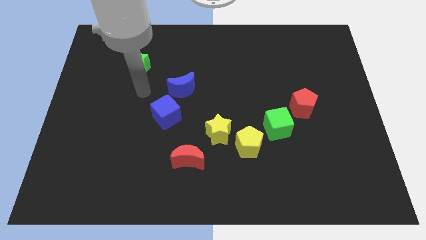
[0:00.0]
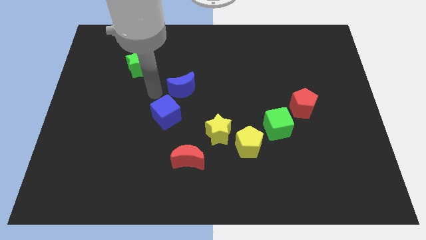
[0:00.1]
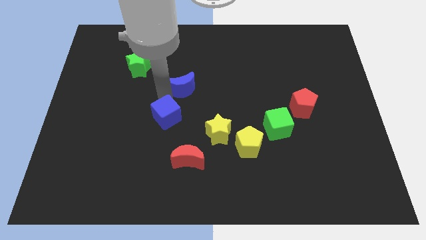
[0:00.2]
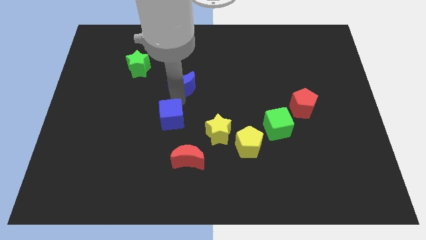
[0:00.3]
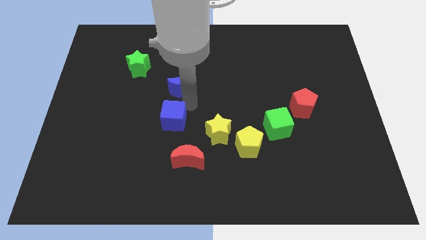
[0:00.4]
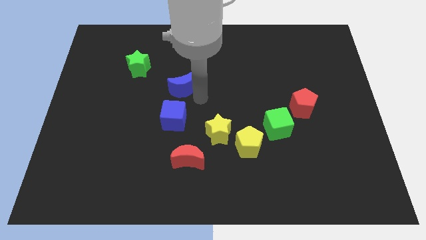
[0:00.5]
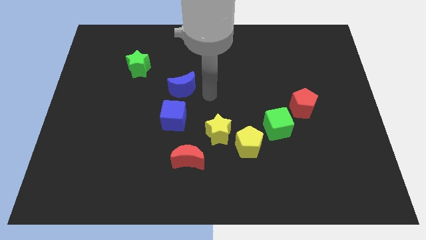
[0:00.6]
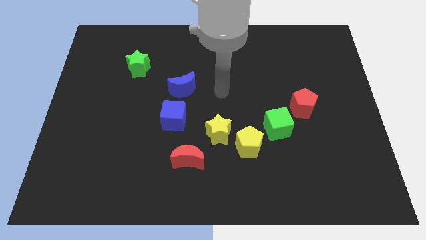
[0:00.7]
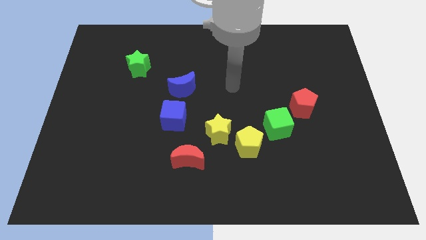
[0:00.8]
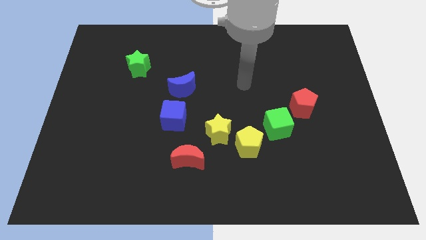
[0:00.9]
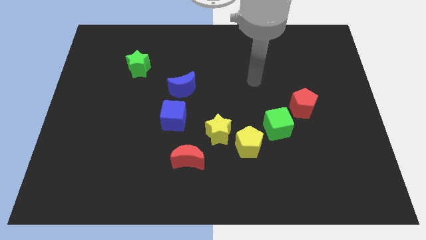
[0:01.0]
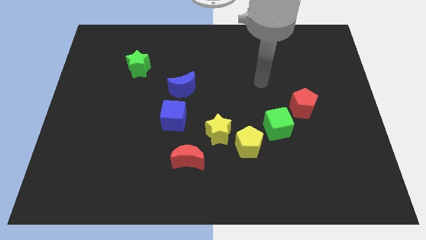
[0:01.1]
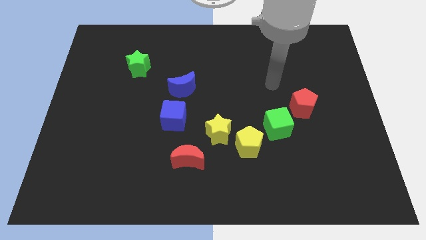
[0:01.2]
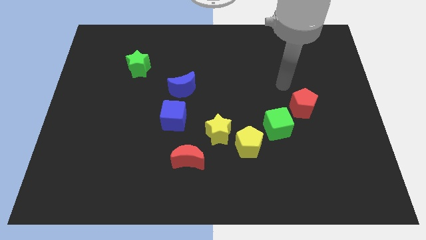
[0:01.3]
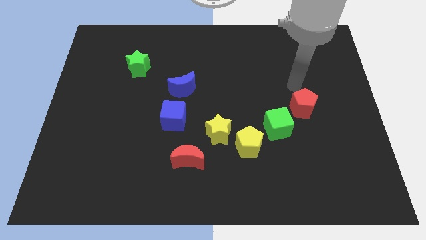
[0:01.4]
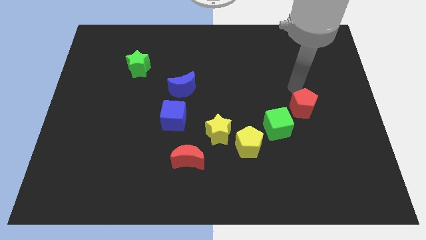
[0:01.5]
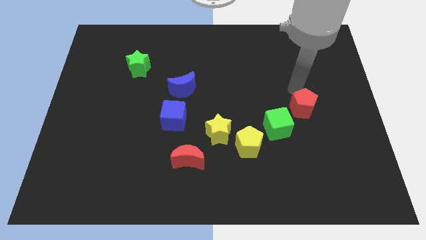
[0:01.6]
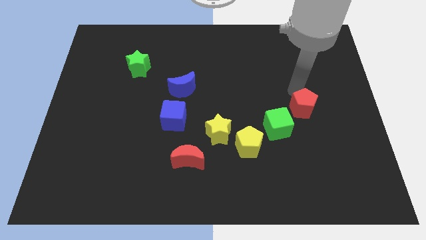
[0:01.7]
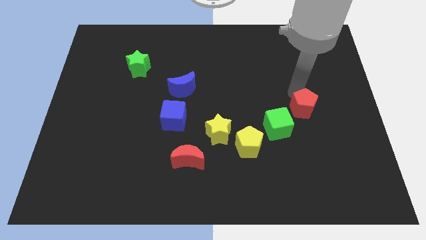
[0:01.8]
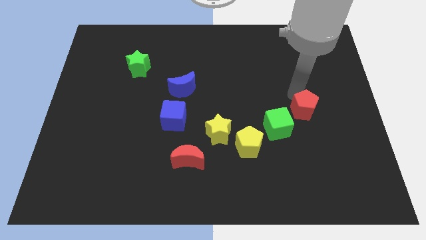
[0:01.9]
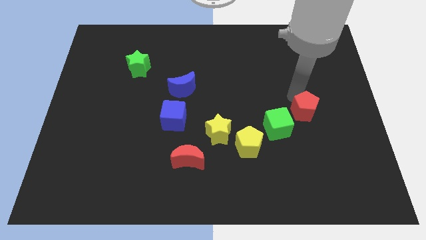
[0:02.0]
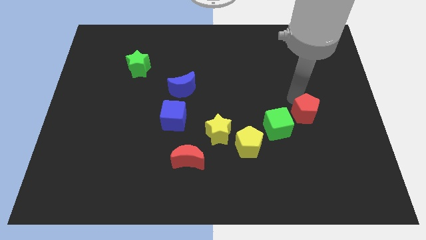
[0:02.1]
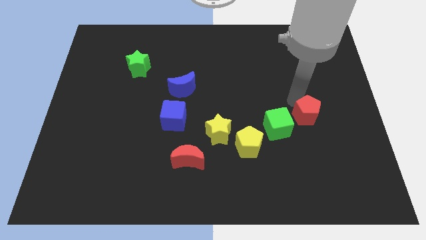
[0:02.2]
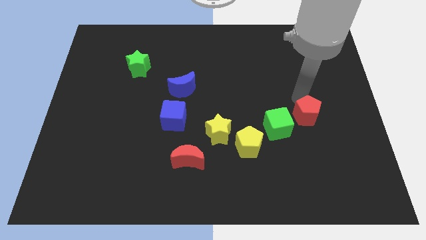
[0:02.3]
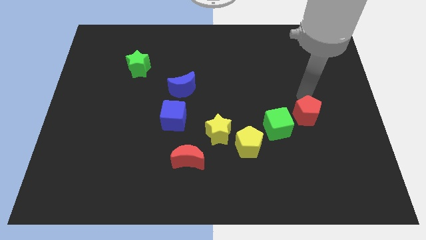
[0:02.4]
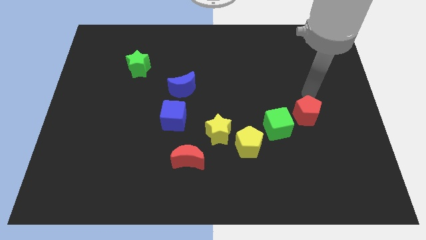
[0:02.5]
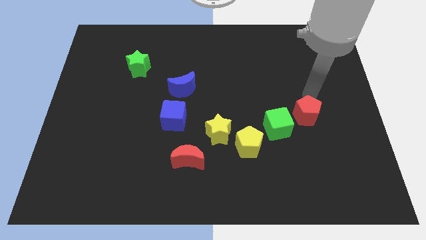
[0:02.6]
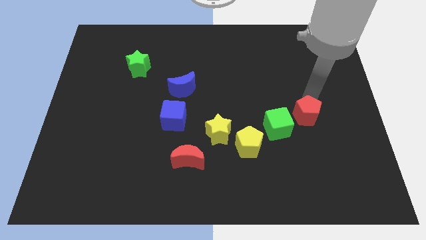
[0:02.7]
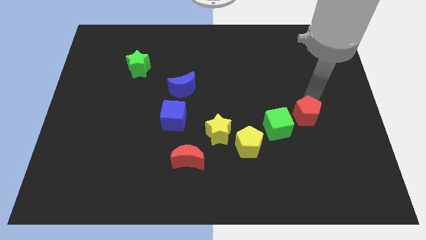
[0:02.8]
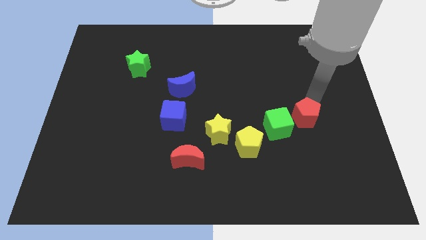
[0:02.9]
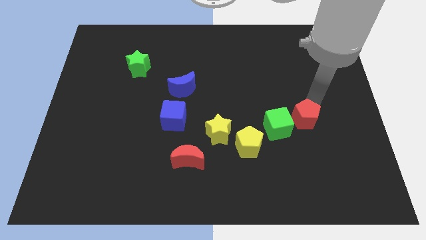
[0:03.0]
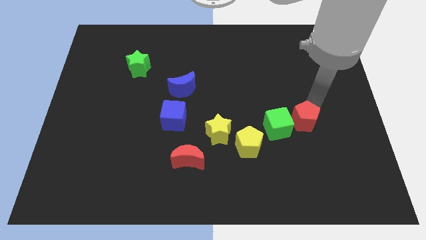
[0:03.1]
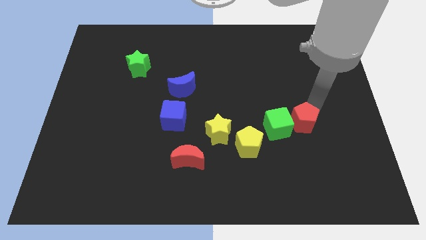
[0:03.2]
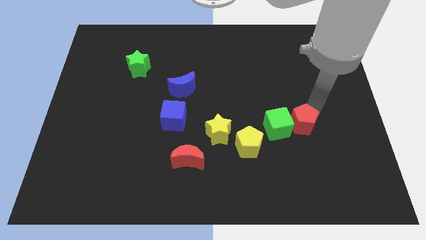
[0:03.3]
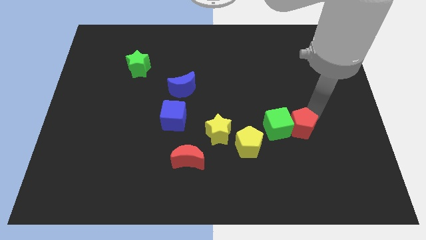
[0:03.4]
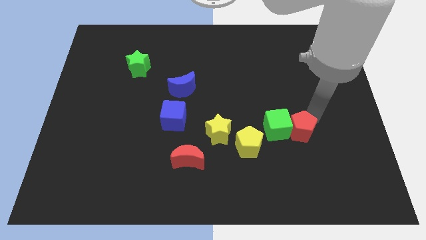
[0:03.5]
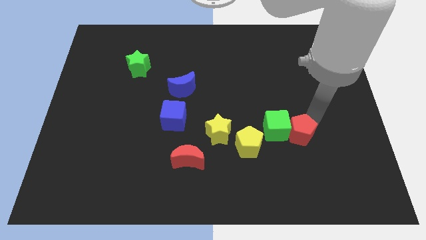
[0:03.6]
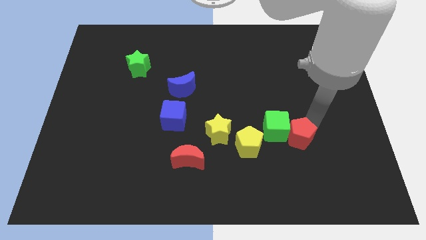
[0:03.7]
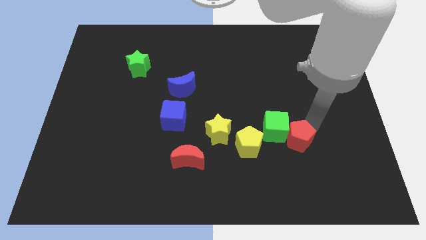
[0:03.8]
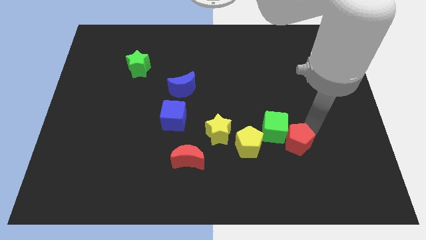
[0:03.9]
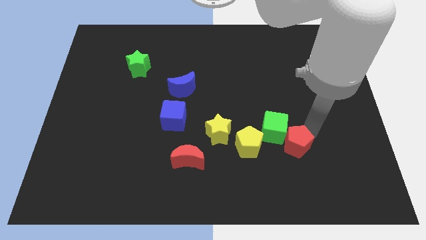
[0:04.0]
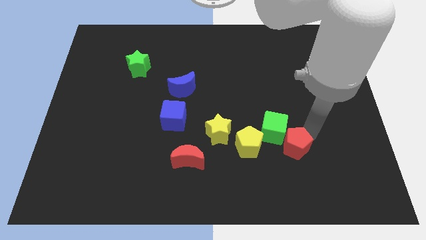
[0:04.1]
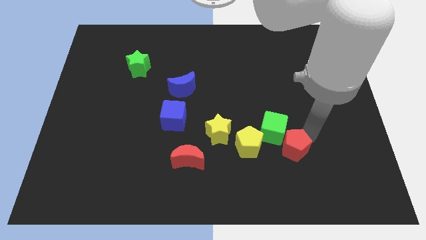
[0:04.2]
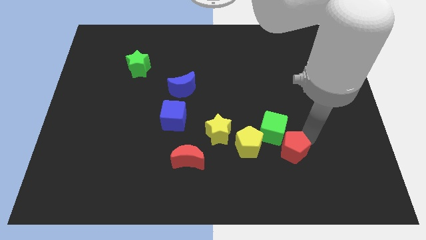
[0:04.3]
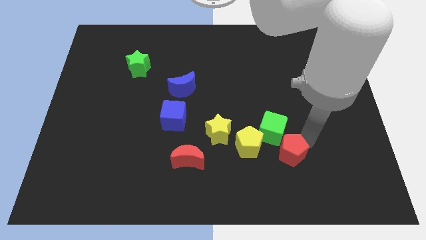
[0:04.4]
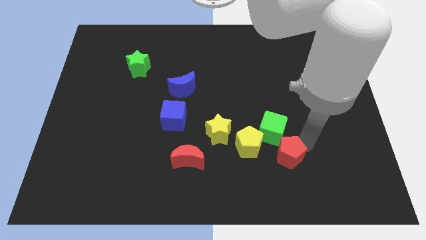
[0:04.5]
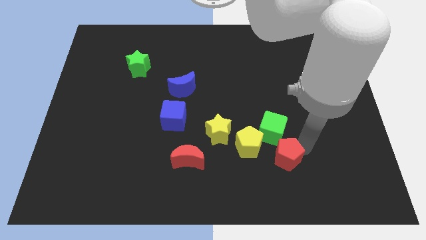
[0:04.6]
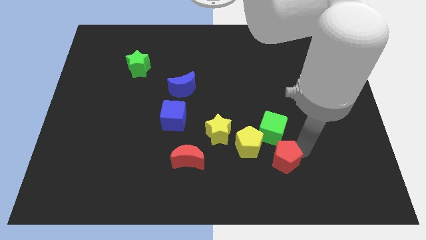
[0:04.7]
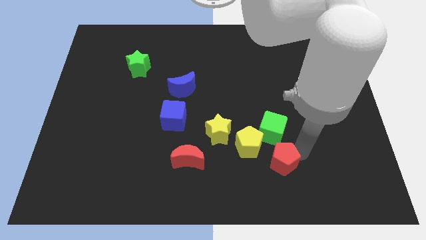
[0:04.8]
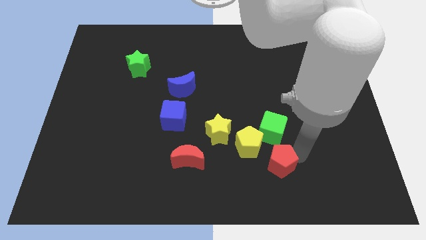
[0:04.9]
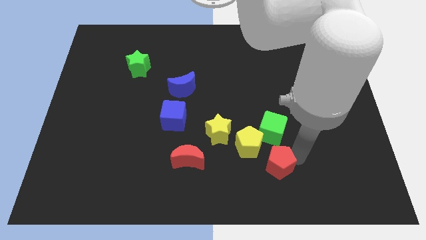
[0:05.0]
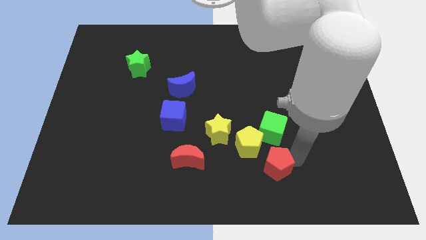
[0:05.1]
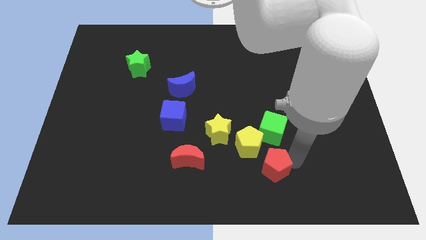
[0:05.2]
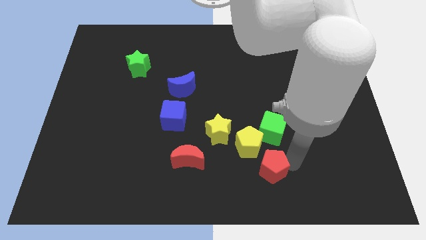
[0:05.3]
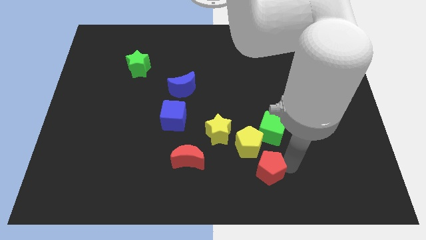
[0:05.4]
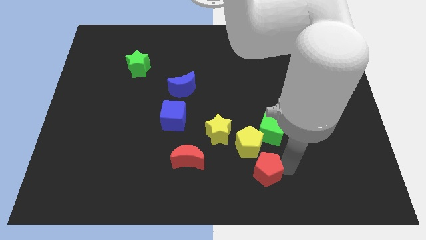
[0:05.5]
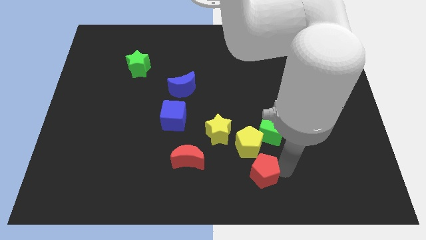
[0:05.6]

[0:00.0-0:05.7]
slide the red pentagon to the bottom side

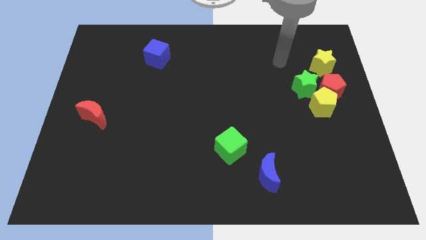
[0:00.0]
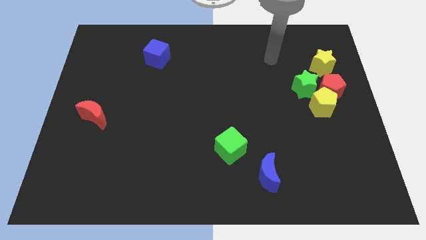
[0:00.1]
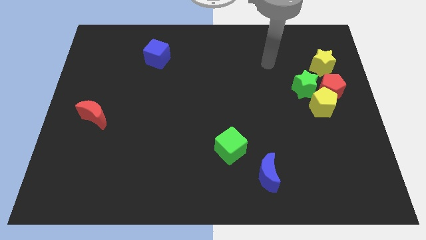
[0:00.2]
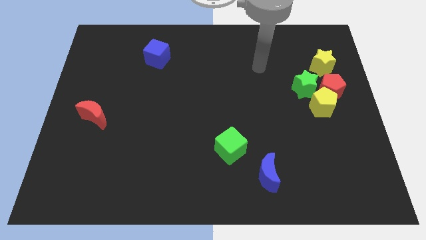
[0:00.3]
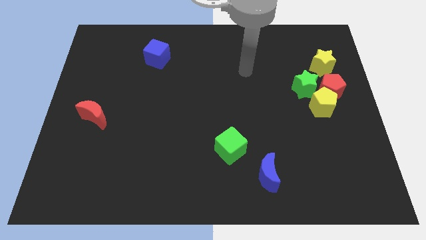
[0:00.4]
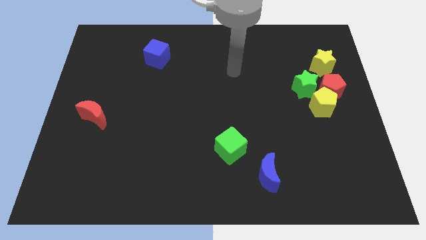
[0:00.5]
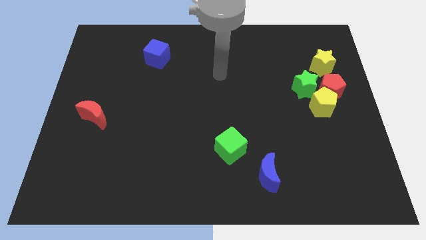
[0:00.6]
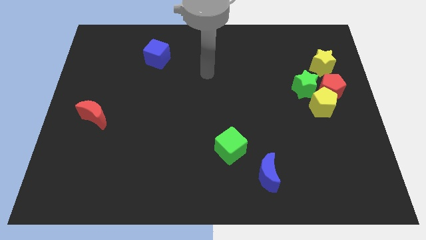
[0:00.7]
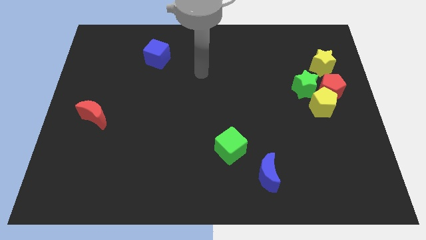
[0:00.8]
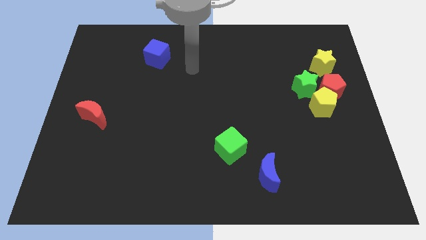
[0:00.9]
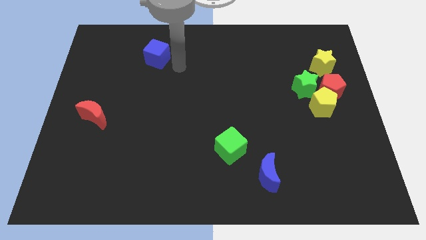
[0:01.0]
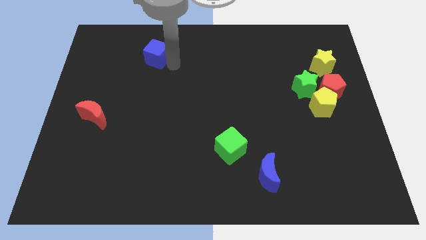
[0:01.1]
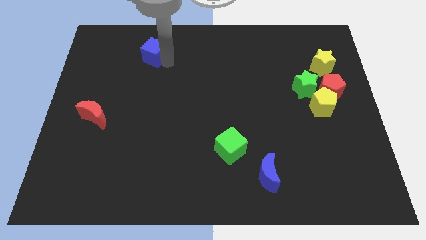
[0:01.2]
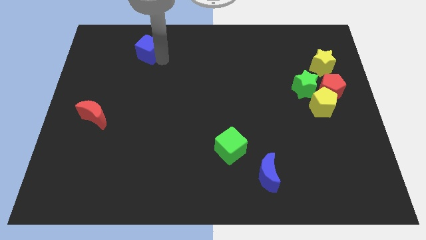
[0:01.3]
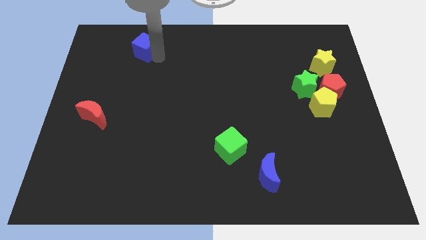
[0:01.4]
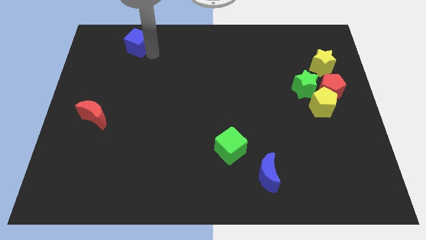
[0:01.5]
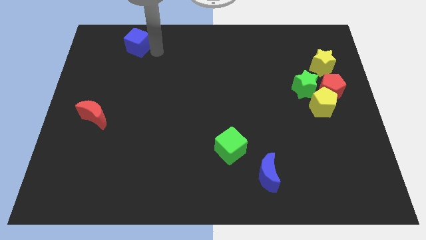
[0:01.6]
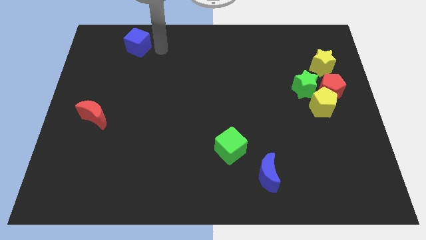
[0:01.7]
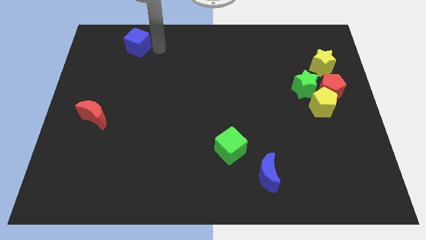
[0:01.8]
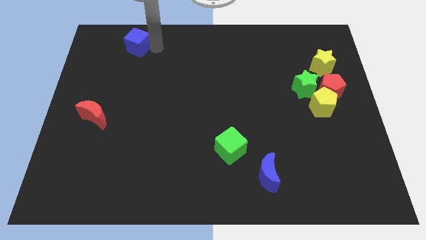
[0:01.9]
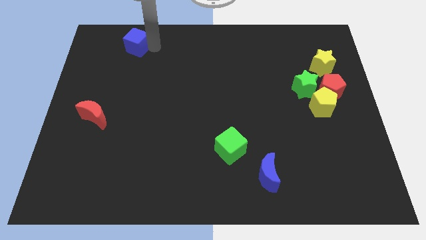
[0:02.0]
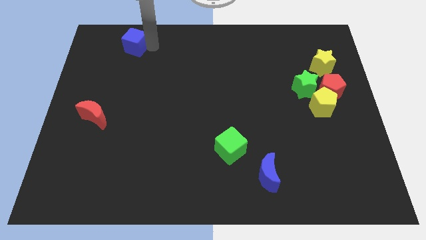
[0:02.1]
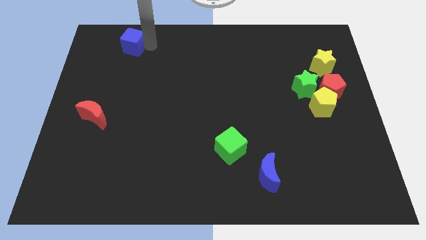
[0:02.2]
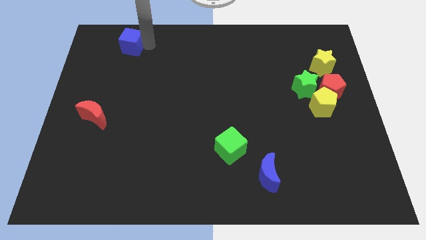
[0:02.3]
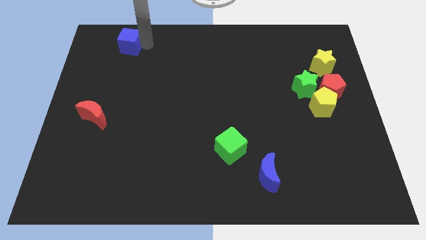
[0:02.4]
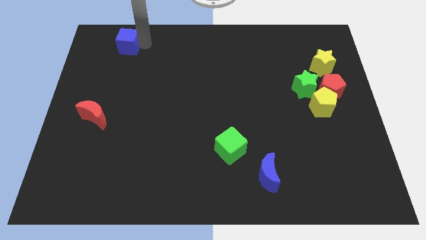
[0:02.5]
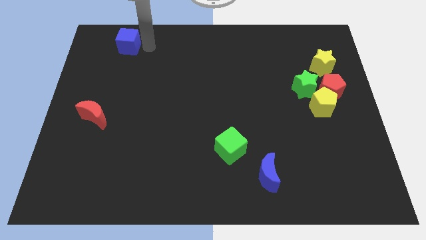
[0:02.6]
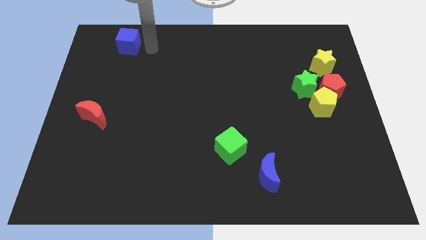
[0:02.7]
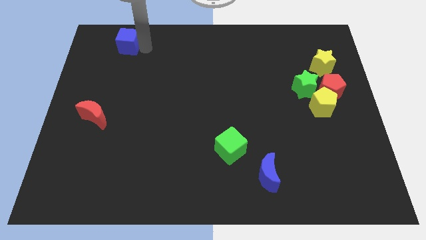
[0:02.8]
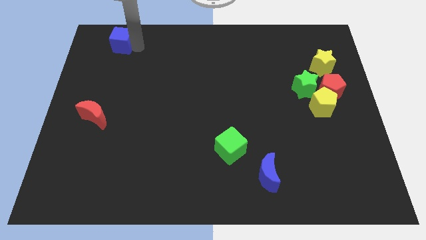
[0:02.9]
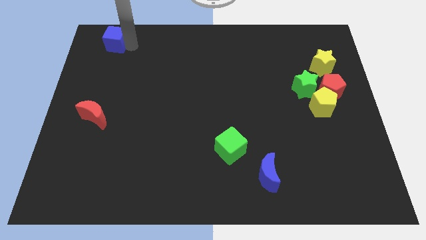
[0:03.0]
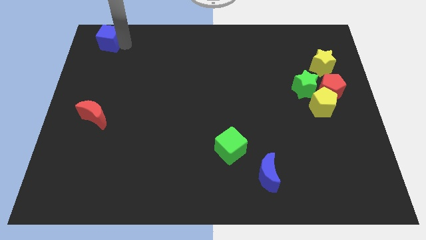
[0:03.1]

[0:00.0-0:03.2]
push the blue cube to the top left corner
